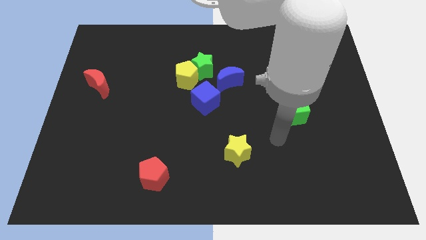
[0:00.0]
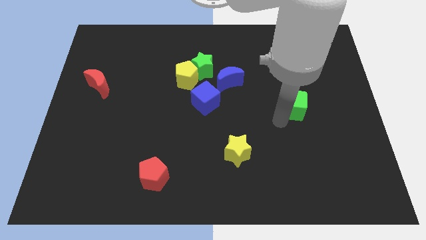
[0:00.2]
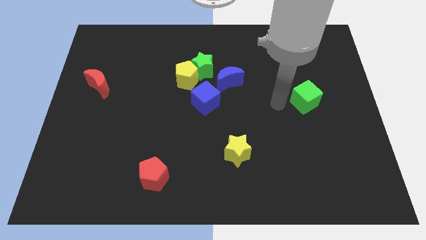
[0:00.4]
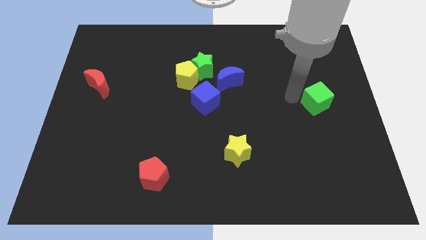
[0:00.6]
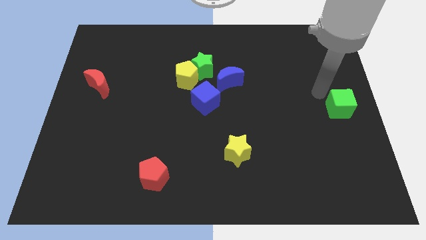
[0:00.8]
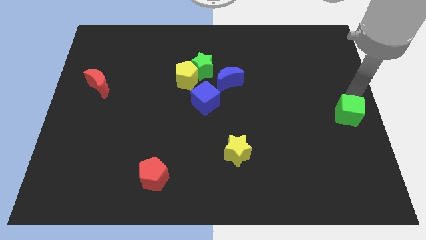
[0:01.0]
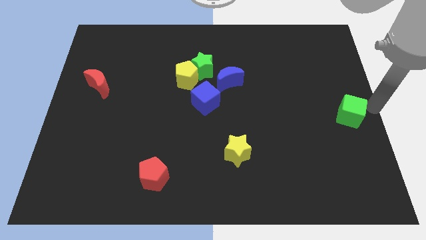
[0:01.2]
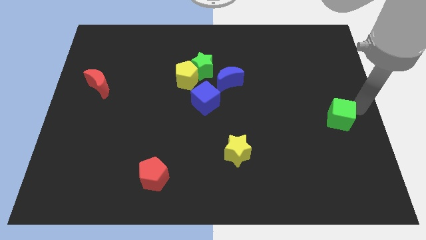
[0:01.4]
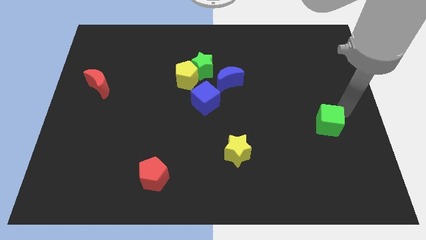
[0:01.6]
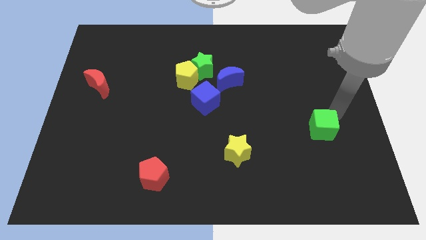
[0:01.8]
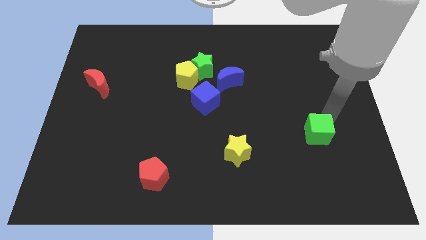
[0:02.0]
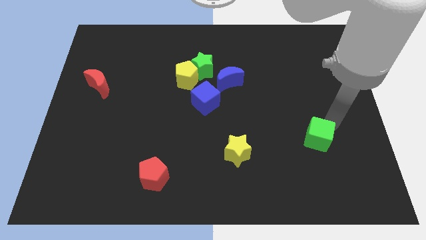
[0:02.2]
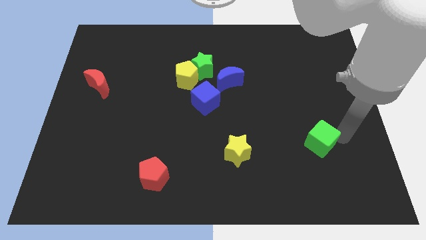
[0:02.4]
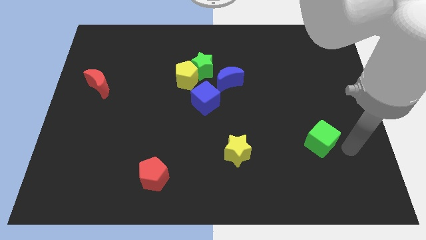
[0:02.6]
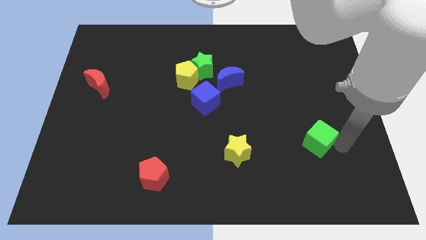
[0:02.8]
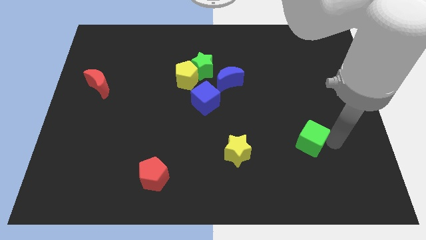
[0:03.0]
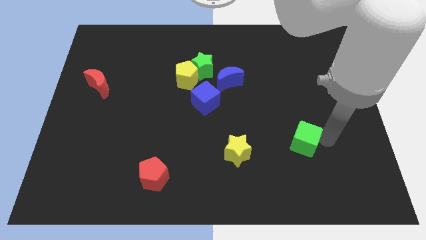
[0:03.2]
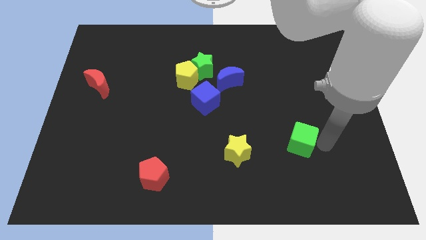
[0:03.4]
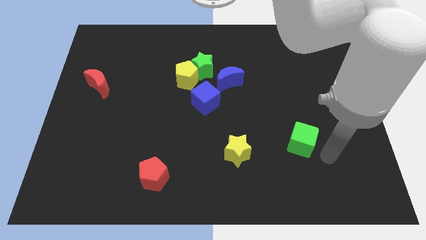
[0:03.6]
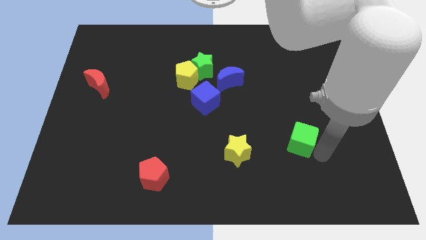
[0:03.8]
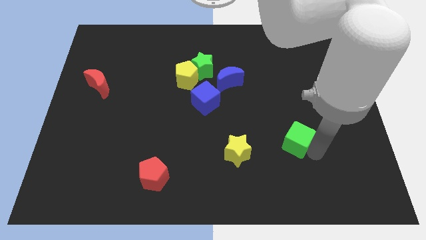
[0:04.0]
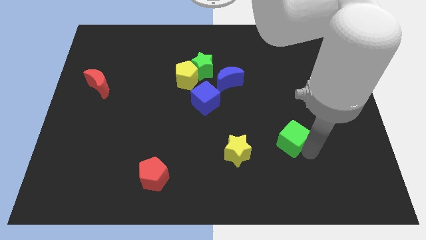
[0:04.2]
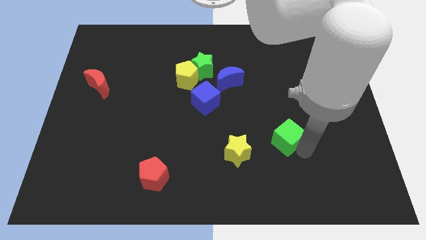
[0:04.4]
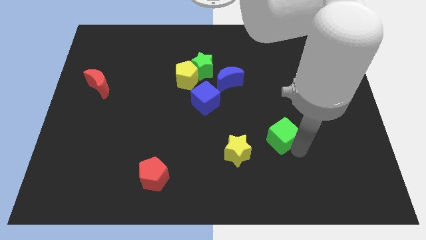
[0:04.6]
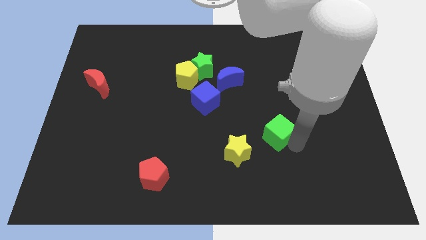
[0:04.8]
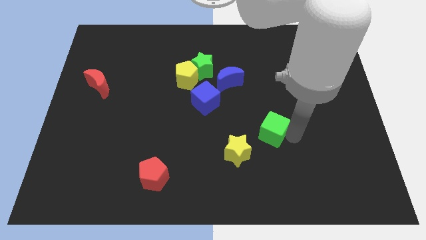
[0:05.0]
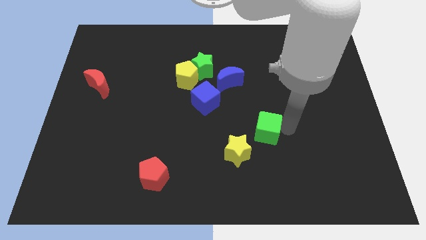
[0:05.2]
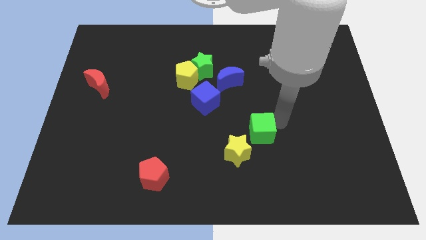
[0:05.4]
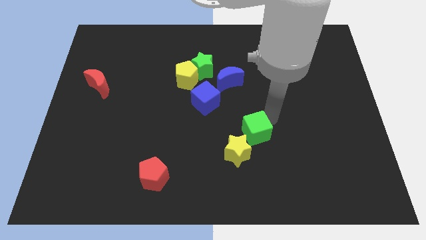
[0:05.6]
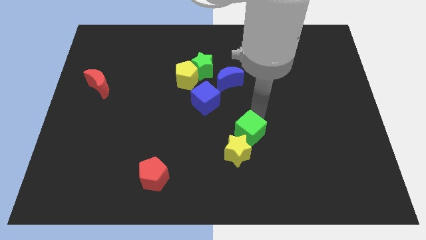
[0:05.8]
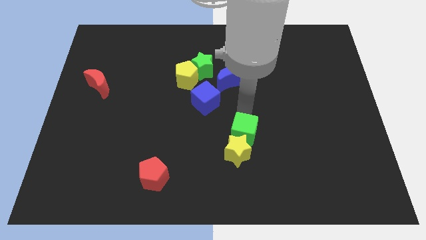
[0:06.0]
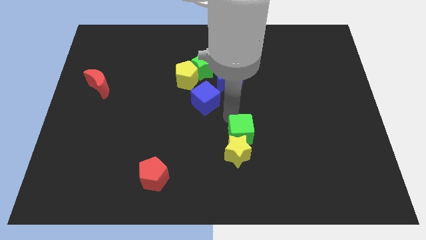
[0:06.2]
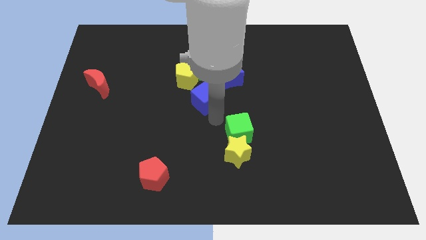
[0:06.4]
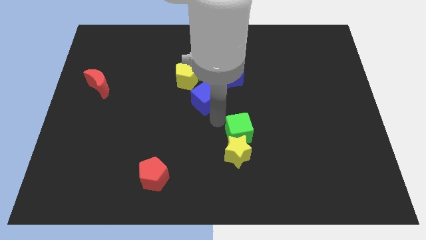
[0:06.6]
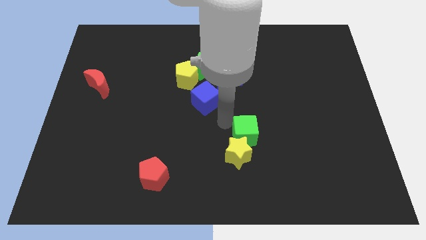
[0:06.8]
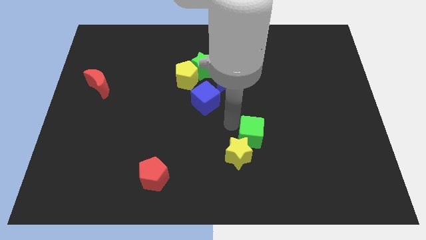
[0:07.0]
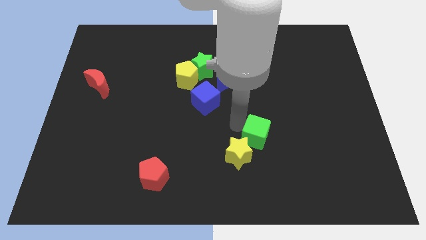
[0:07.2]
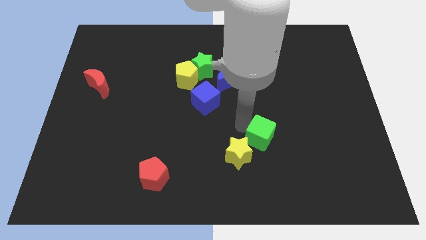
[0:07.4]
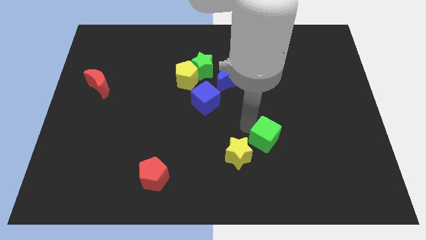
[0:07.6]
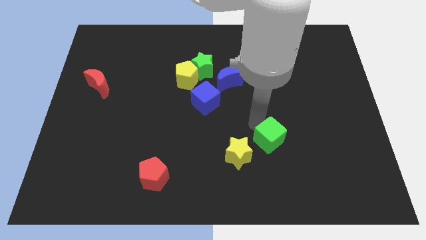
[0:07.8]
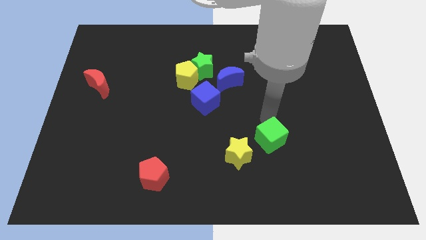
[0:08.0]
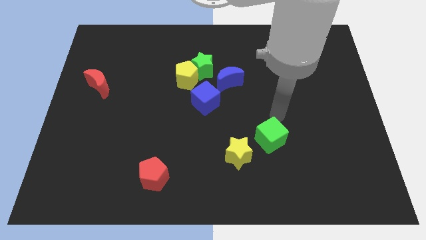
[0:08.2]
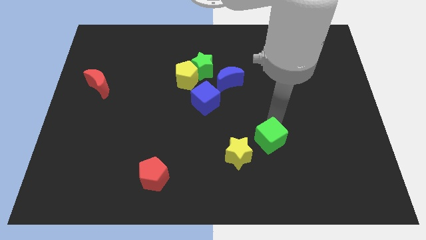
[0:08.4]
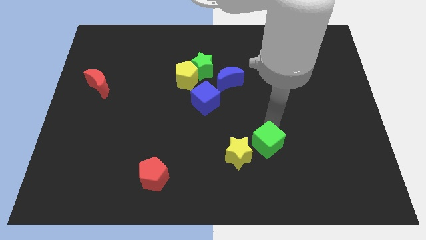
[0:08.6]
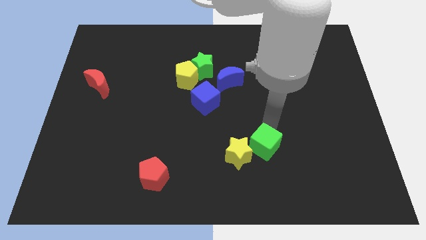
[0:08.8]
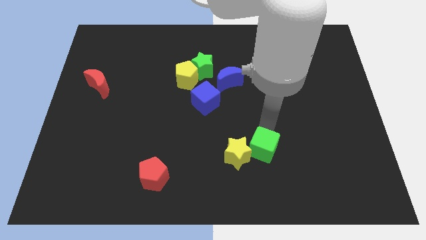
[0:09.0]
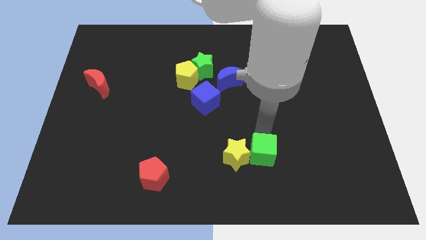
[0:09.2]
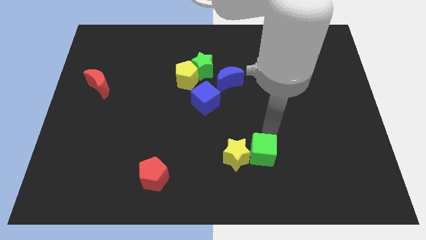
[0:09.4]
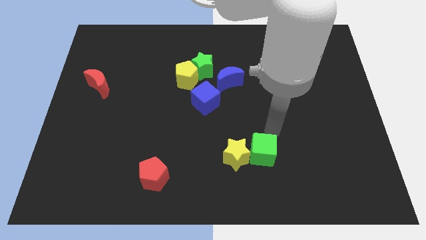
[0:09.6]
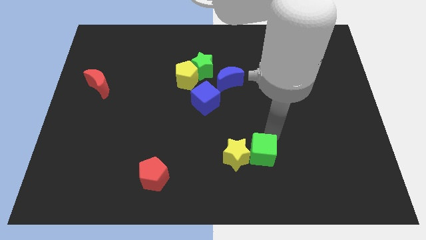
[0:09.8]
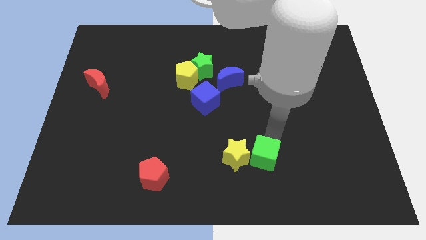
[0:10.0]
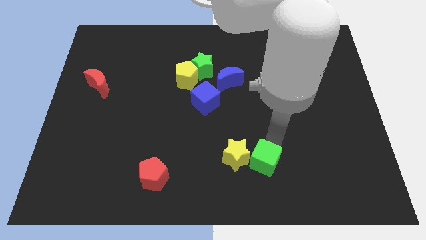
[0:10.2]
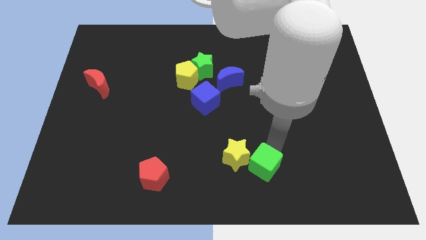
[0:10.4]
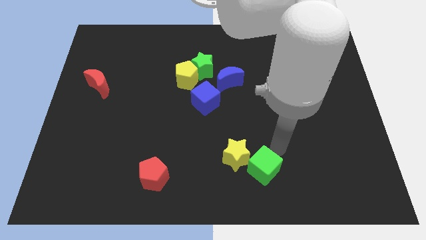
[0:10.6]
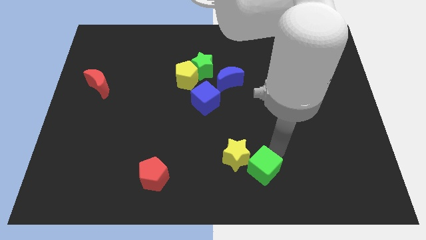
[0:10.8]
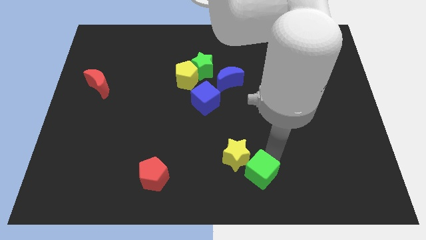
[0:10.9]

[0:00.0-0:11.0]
push the green cube to the bottom
